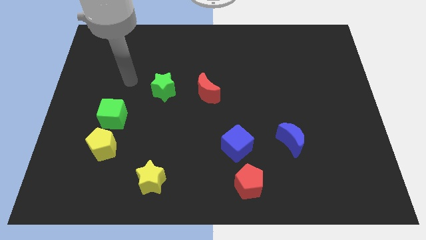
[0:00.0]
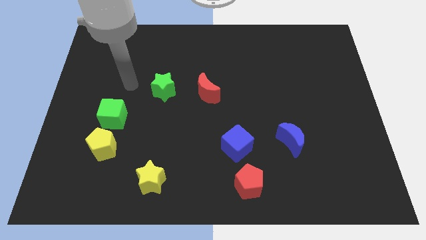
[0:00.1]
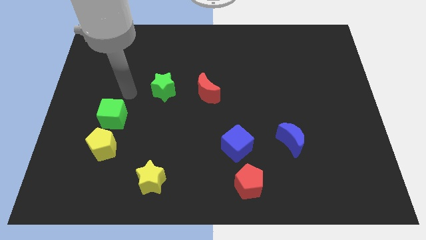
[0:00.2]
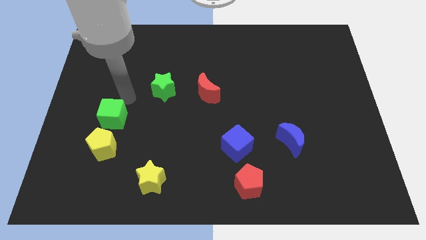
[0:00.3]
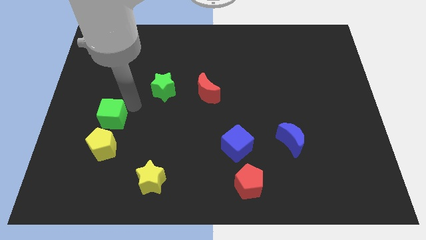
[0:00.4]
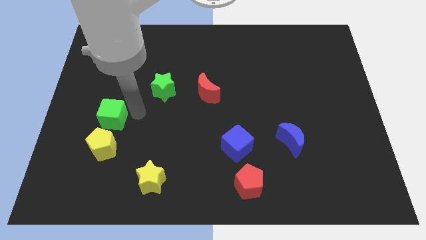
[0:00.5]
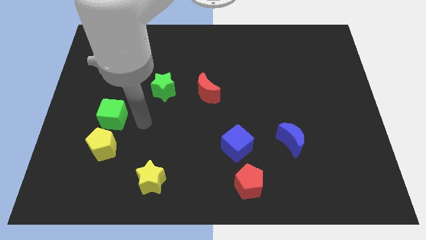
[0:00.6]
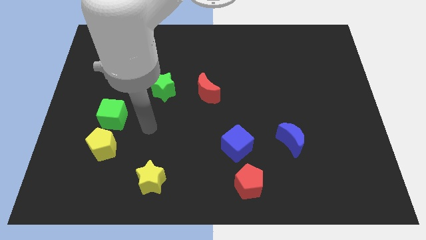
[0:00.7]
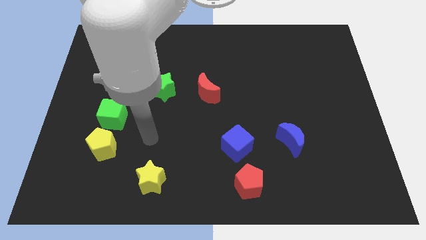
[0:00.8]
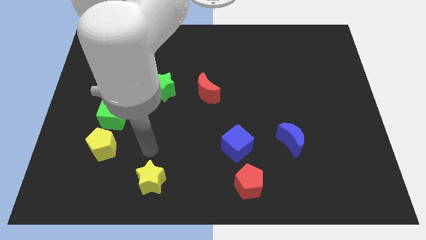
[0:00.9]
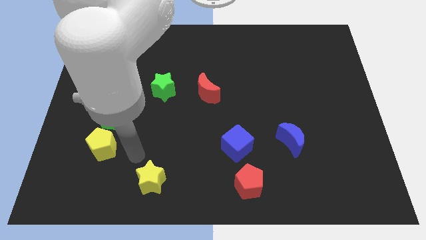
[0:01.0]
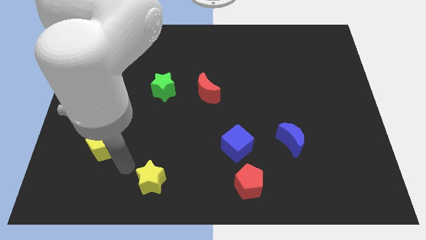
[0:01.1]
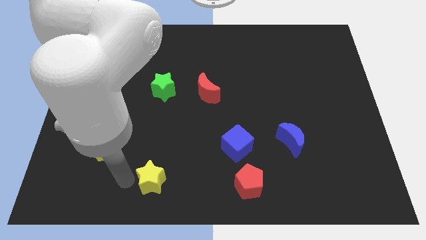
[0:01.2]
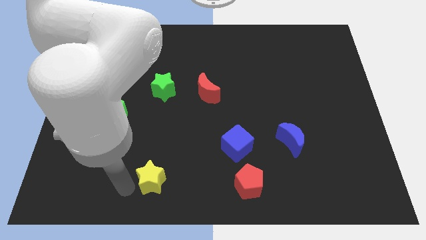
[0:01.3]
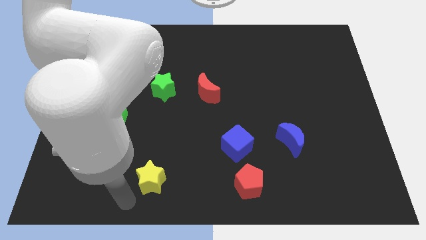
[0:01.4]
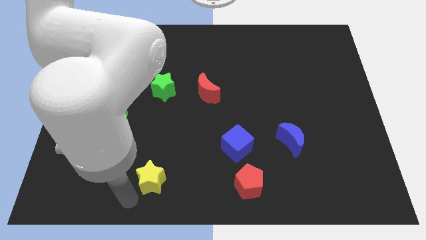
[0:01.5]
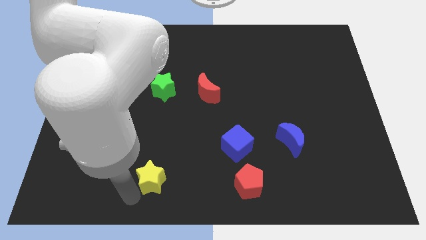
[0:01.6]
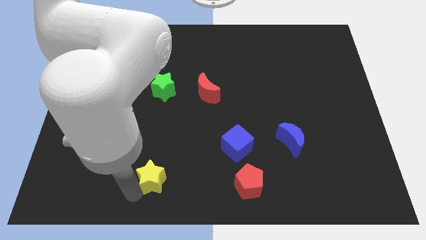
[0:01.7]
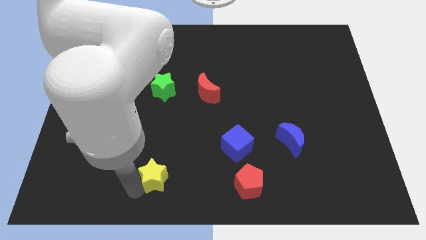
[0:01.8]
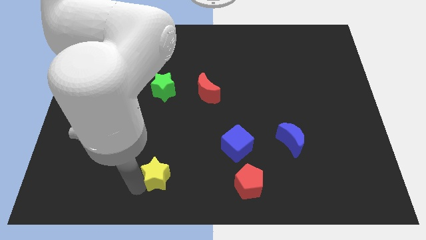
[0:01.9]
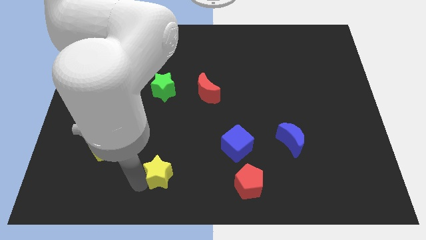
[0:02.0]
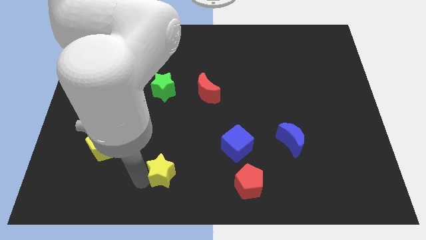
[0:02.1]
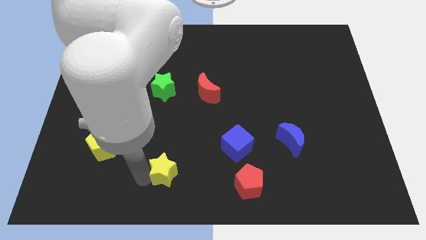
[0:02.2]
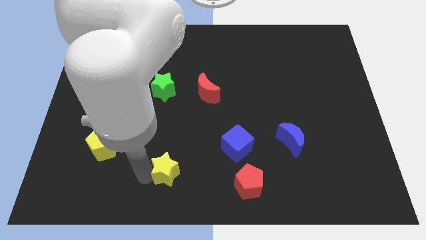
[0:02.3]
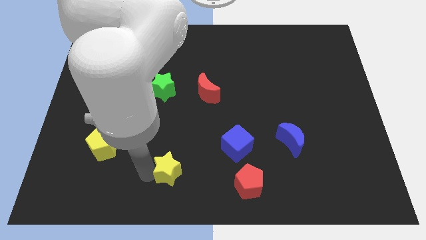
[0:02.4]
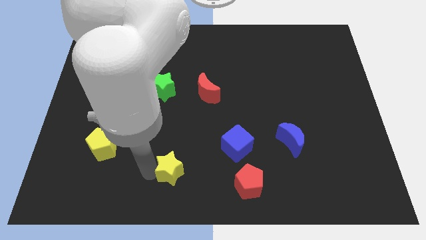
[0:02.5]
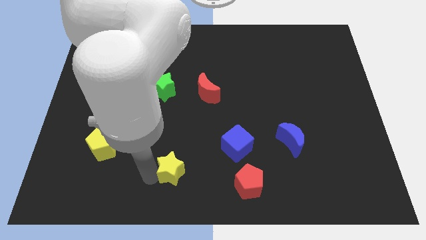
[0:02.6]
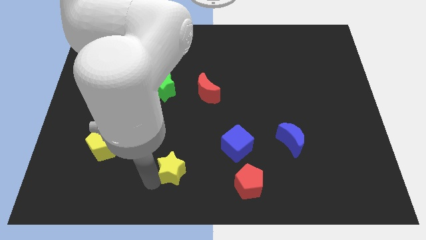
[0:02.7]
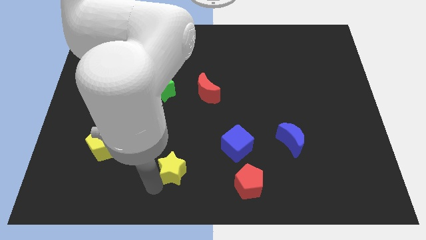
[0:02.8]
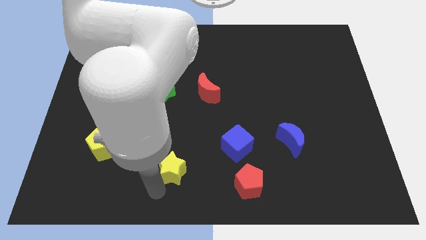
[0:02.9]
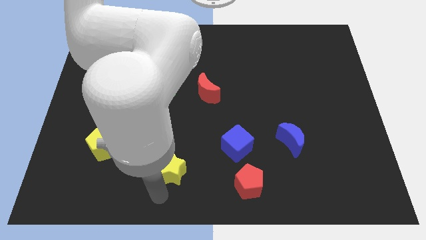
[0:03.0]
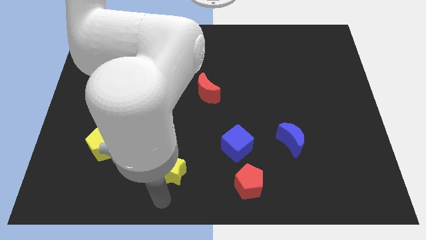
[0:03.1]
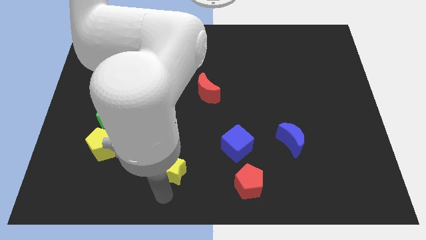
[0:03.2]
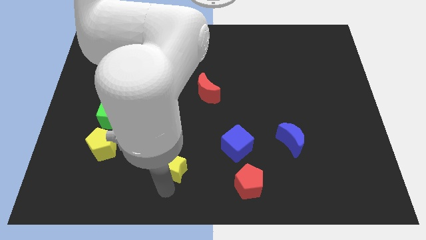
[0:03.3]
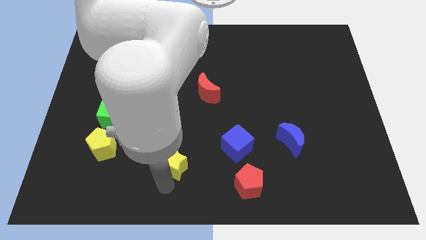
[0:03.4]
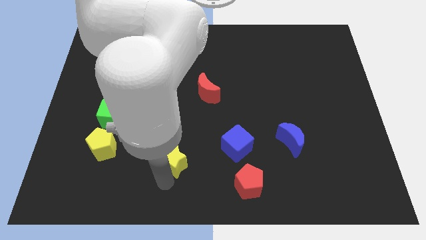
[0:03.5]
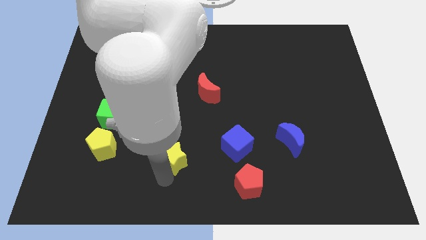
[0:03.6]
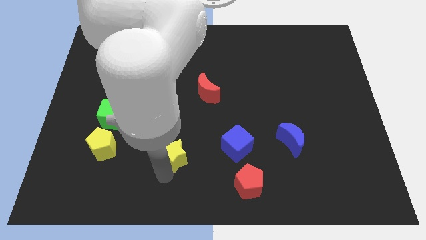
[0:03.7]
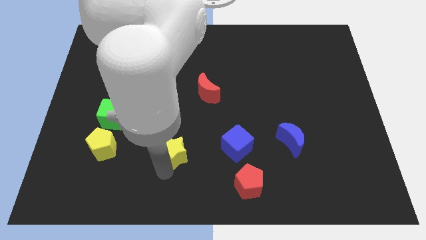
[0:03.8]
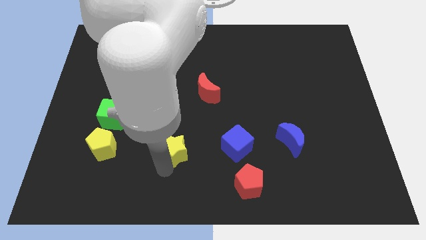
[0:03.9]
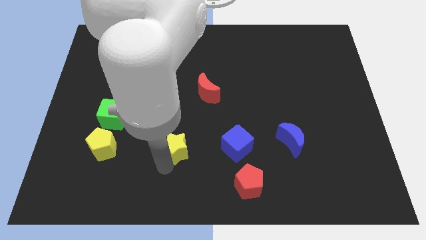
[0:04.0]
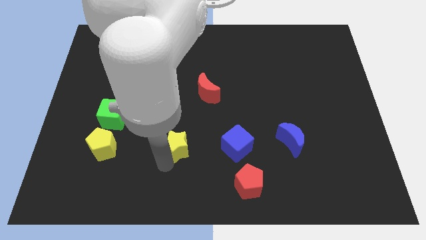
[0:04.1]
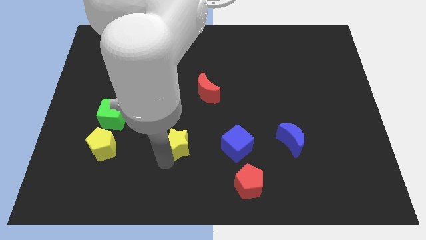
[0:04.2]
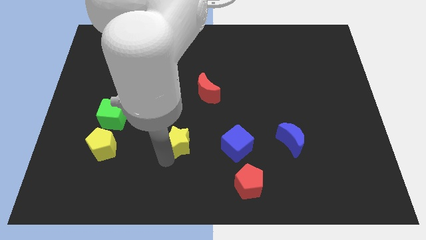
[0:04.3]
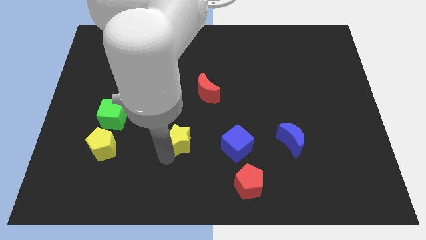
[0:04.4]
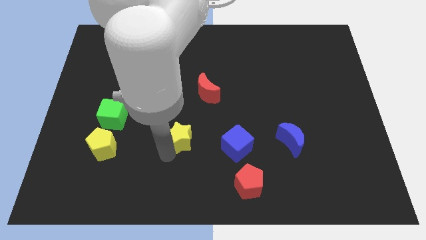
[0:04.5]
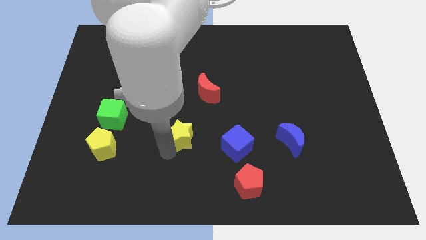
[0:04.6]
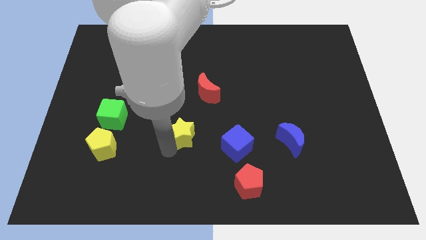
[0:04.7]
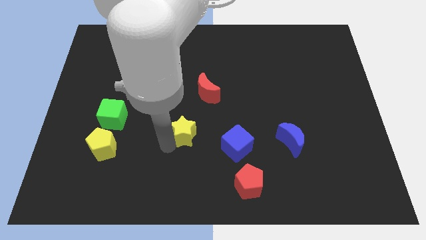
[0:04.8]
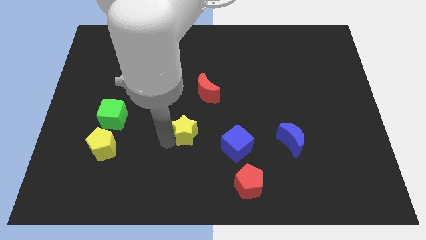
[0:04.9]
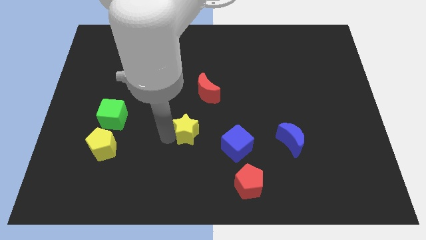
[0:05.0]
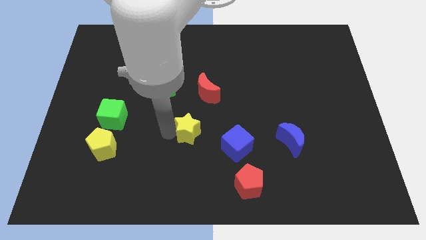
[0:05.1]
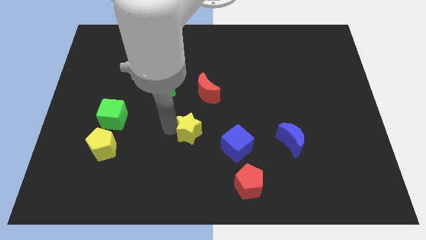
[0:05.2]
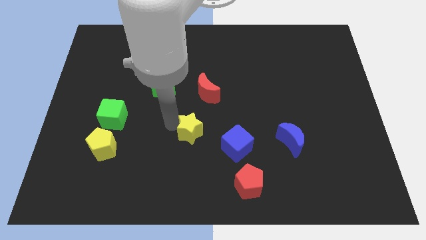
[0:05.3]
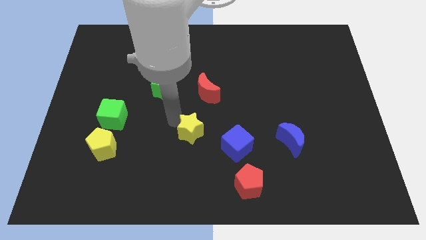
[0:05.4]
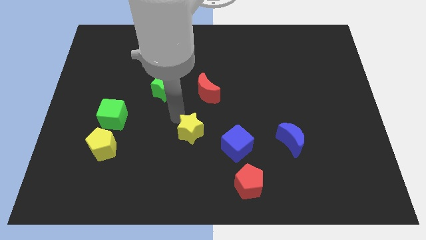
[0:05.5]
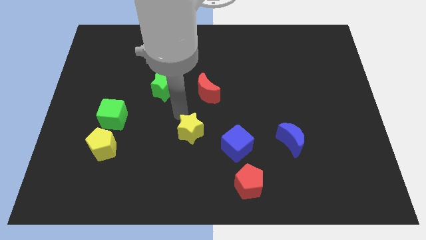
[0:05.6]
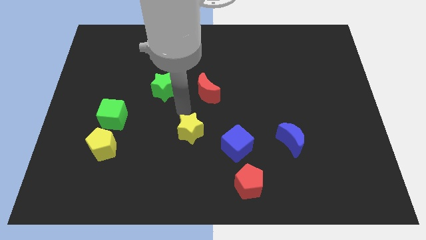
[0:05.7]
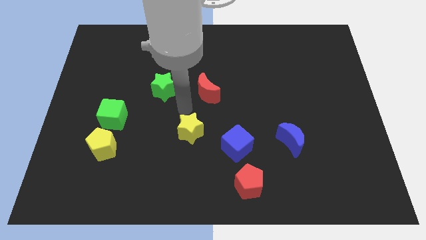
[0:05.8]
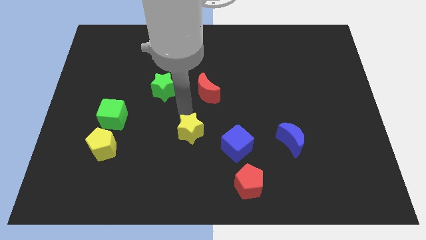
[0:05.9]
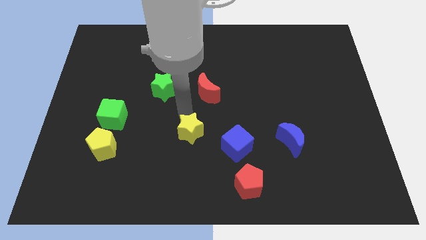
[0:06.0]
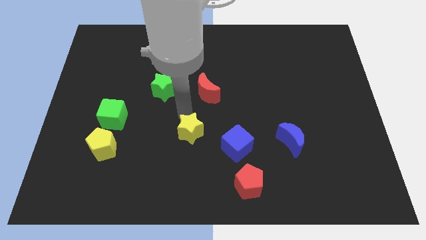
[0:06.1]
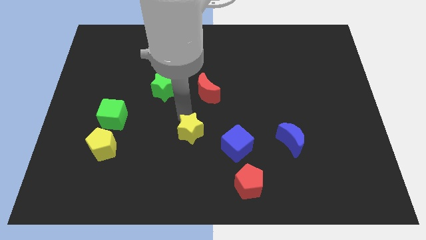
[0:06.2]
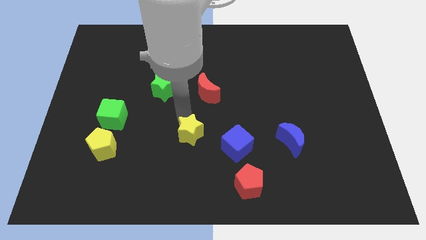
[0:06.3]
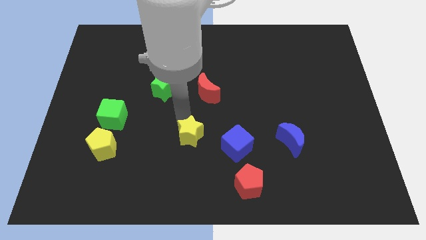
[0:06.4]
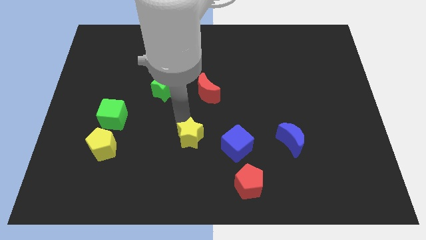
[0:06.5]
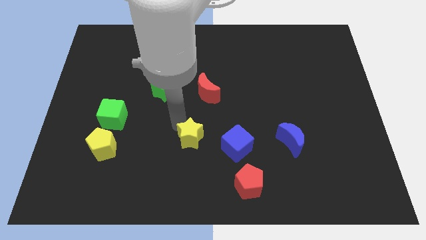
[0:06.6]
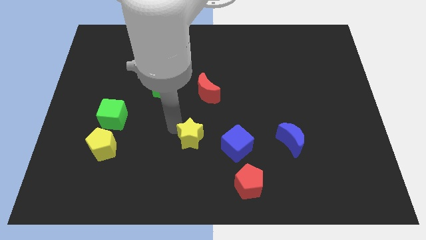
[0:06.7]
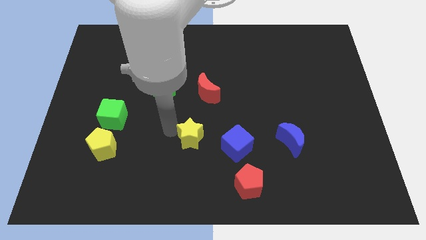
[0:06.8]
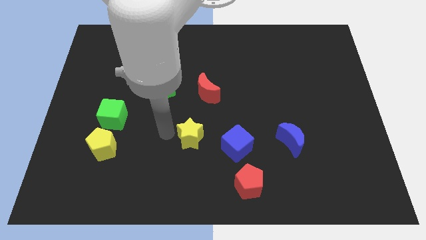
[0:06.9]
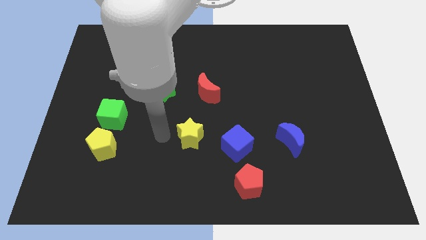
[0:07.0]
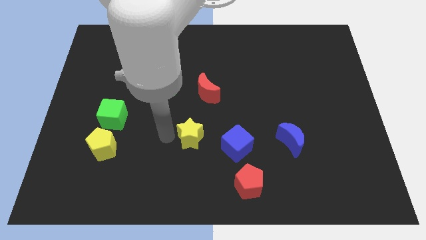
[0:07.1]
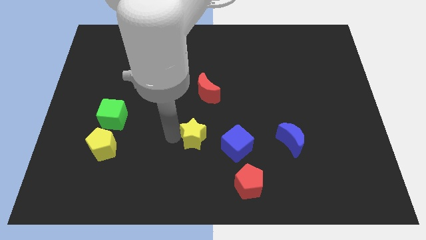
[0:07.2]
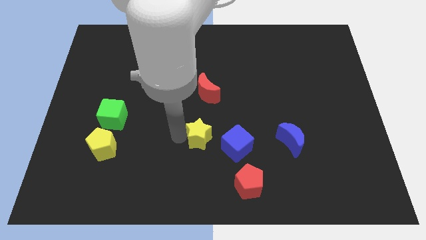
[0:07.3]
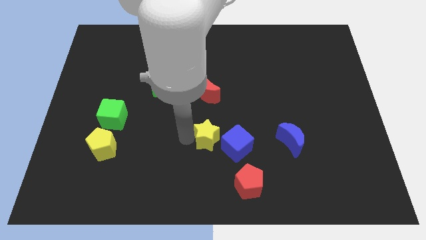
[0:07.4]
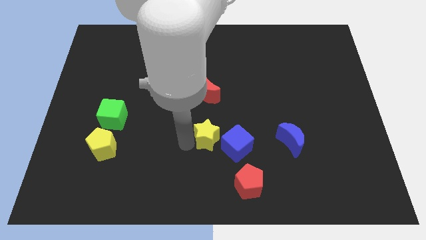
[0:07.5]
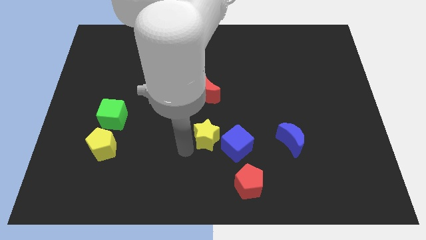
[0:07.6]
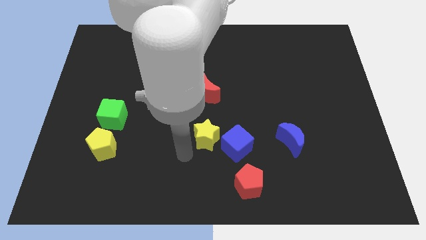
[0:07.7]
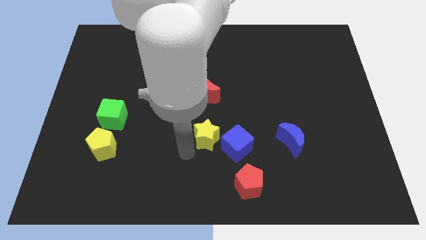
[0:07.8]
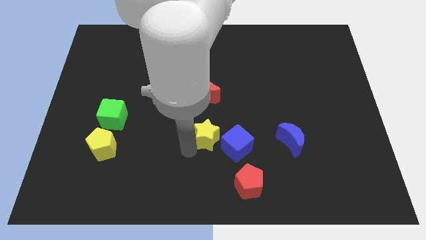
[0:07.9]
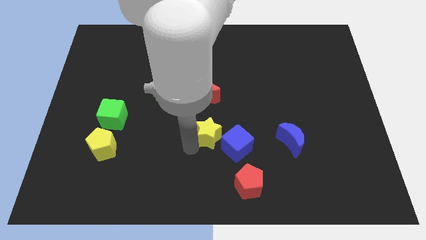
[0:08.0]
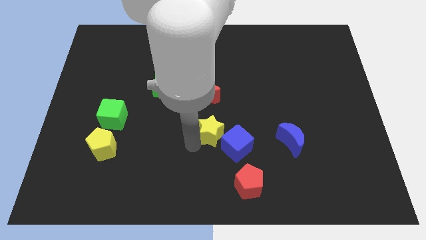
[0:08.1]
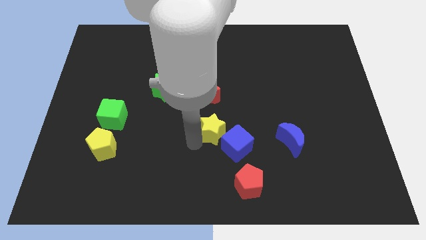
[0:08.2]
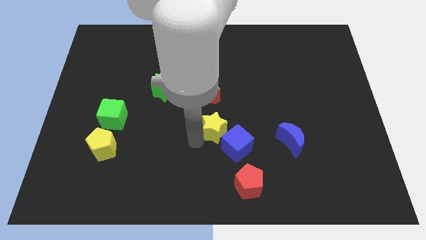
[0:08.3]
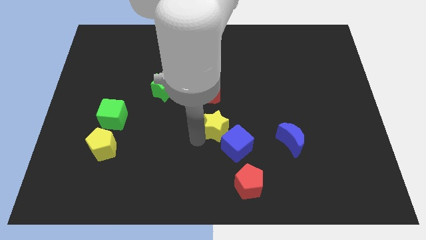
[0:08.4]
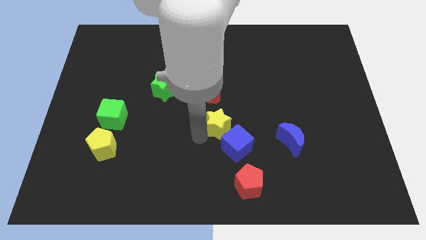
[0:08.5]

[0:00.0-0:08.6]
move the yellow star diagonally down and to the right of the red moon
